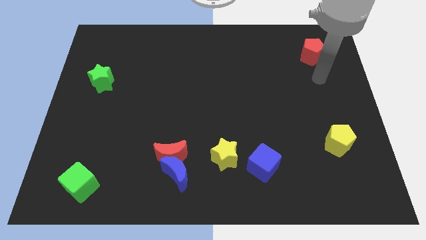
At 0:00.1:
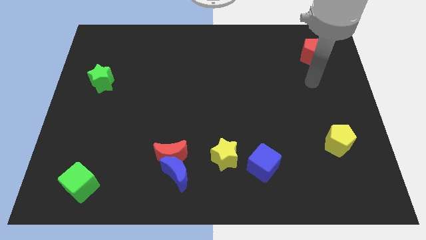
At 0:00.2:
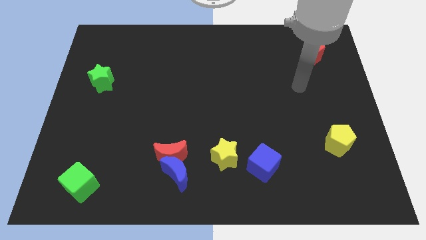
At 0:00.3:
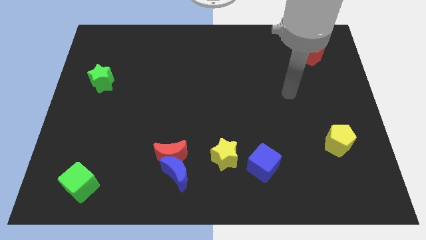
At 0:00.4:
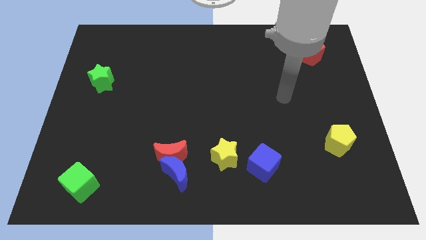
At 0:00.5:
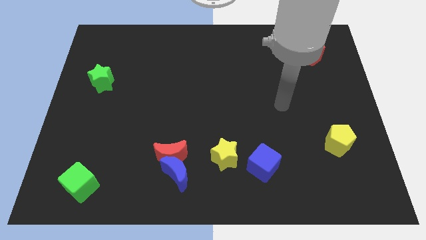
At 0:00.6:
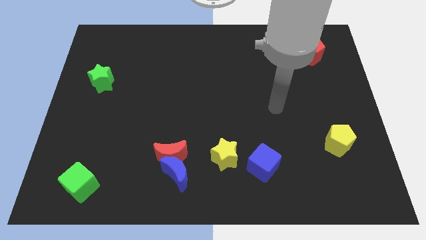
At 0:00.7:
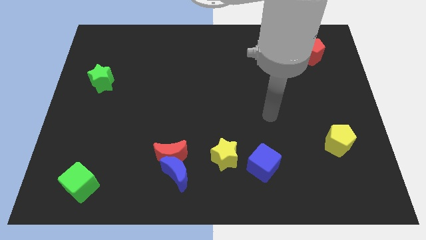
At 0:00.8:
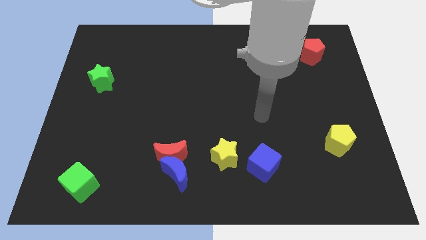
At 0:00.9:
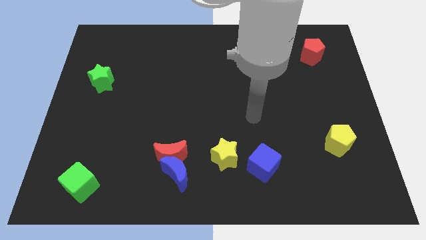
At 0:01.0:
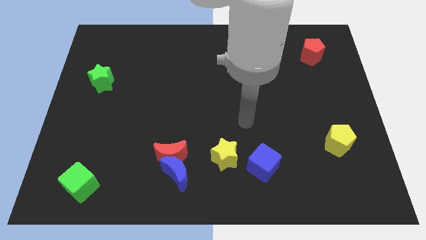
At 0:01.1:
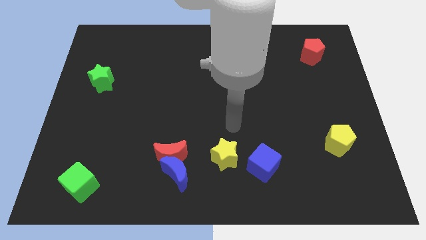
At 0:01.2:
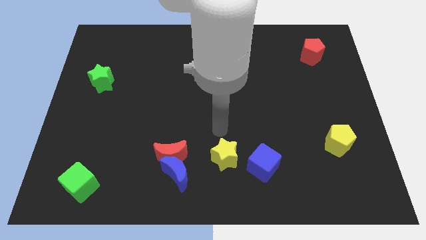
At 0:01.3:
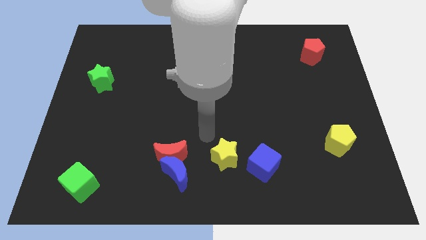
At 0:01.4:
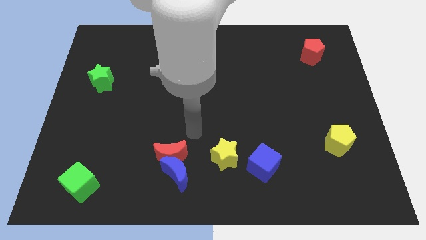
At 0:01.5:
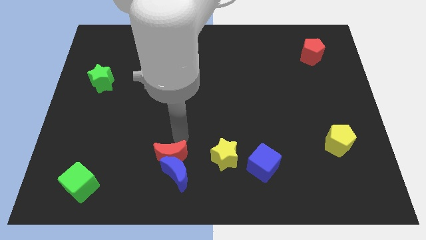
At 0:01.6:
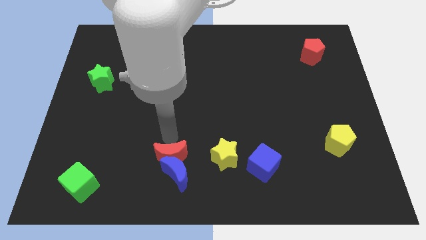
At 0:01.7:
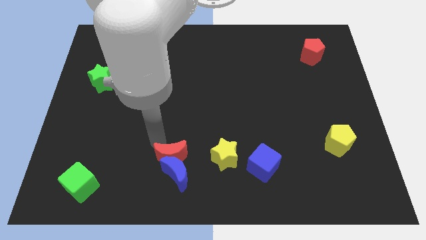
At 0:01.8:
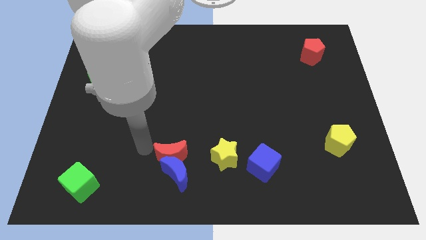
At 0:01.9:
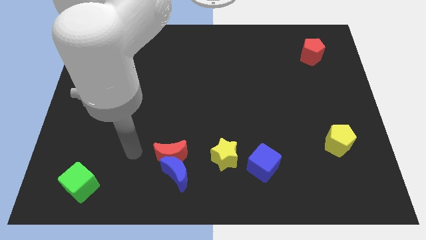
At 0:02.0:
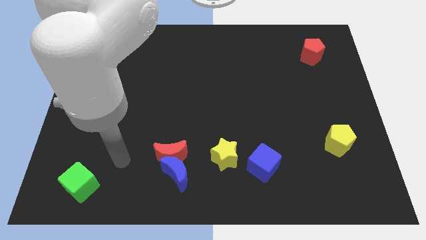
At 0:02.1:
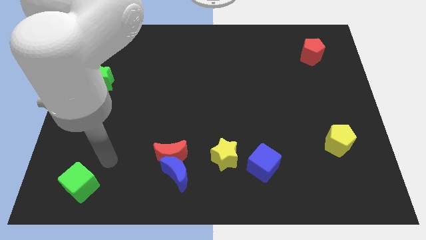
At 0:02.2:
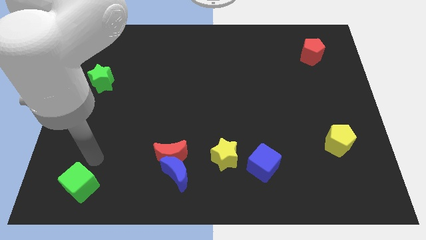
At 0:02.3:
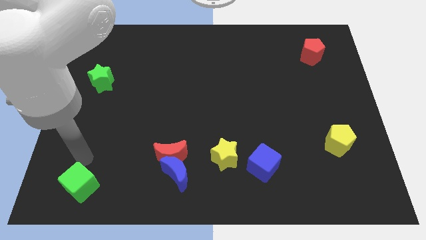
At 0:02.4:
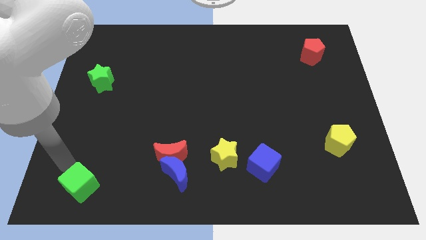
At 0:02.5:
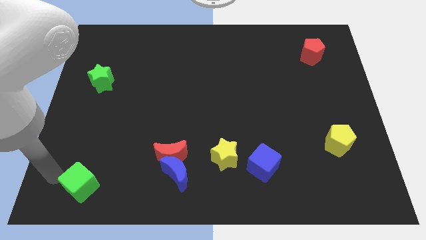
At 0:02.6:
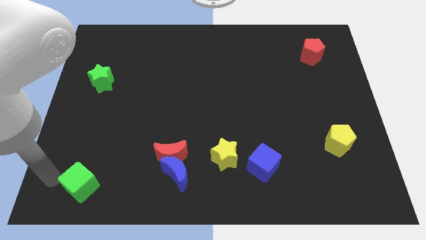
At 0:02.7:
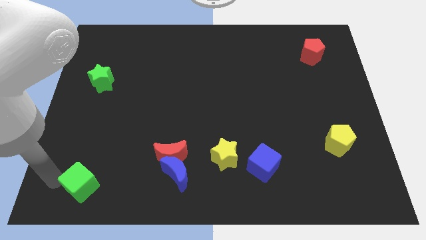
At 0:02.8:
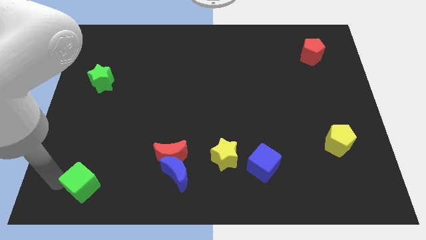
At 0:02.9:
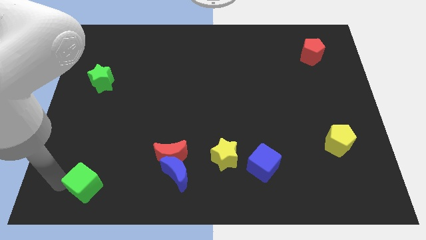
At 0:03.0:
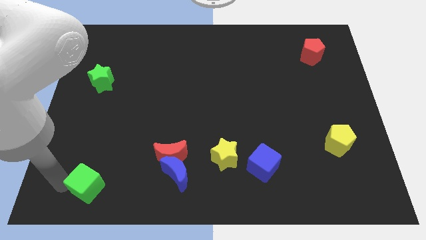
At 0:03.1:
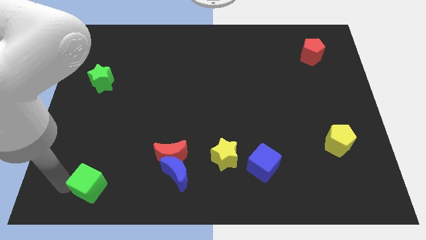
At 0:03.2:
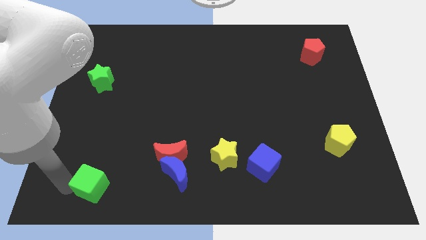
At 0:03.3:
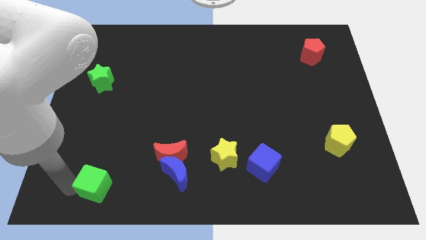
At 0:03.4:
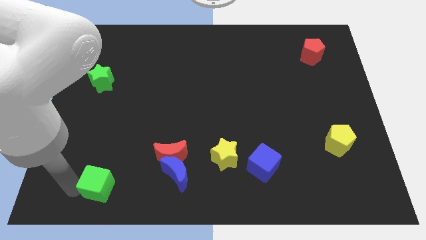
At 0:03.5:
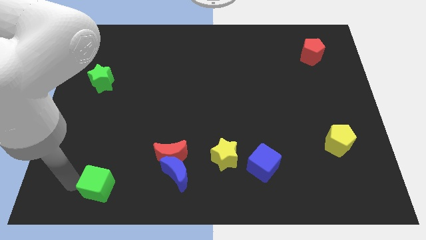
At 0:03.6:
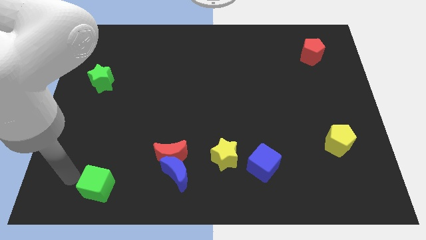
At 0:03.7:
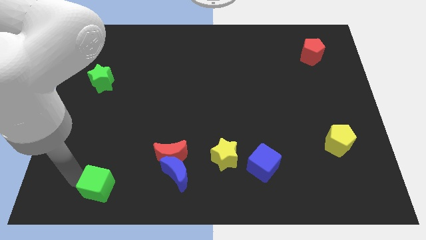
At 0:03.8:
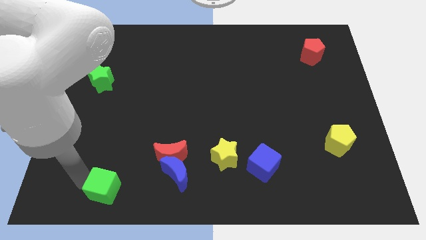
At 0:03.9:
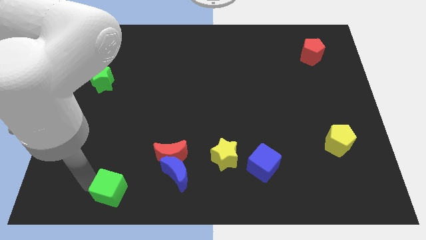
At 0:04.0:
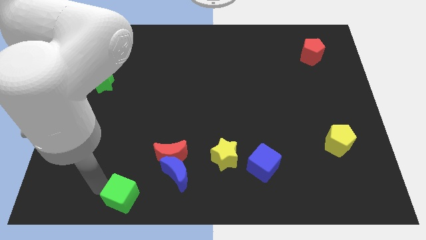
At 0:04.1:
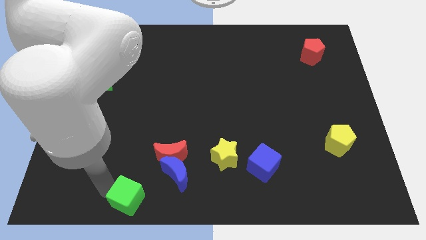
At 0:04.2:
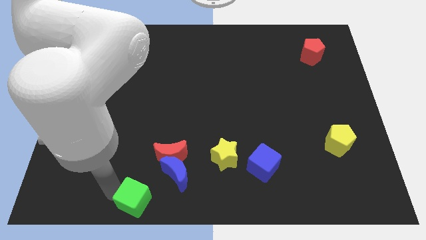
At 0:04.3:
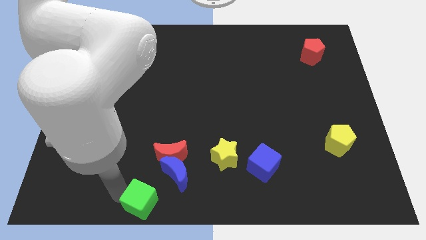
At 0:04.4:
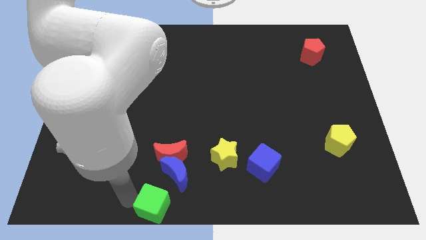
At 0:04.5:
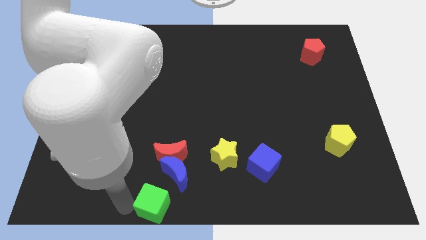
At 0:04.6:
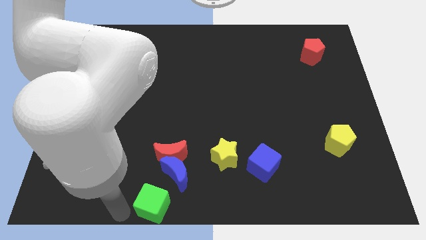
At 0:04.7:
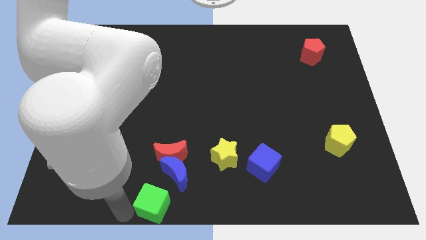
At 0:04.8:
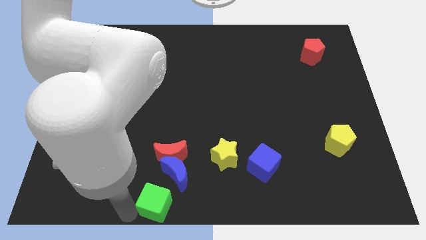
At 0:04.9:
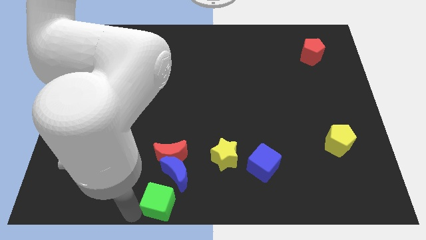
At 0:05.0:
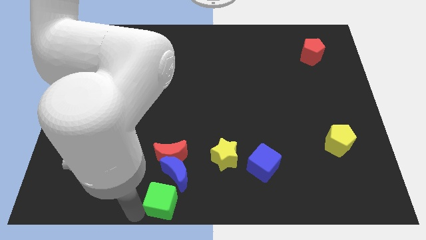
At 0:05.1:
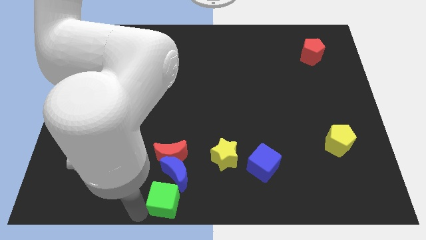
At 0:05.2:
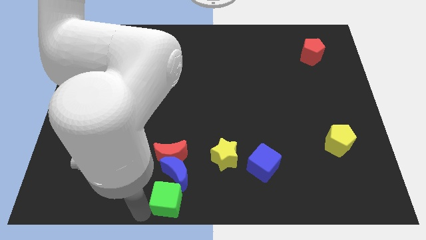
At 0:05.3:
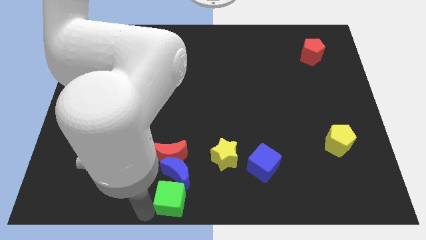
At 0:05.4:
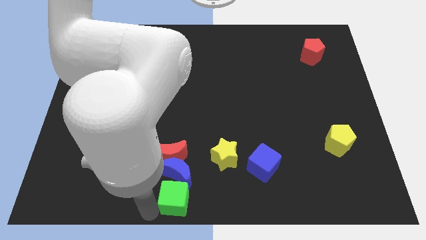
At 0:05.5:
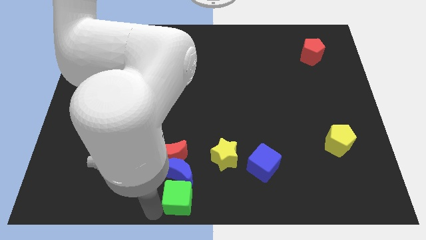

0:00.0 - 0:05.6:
move the green cube to the bottom left of the yellow star

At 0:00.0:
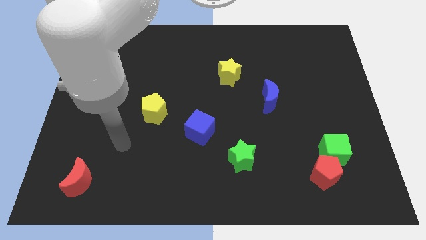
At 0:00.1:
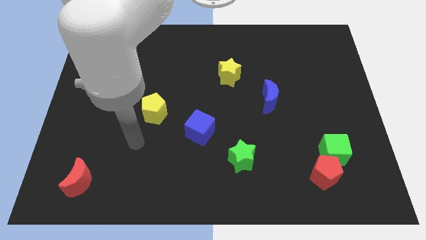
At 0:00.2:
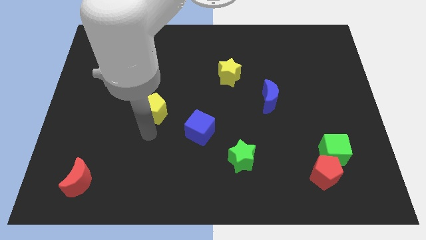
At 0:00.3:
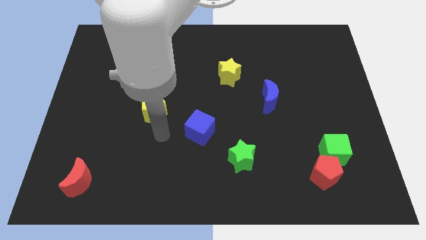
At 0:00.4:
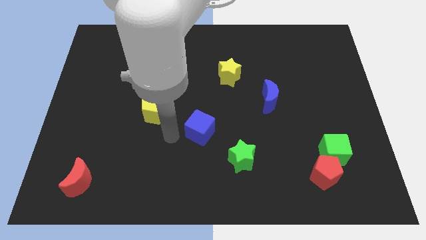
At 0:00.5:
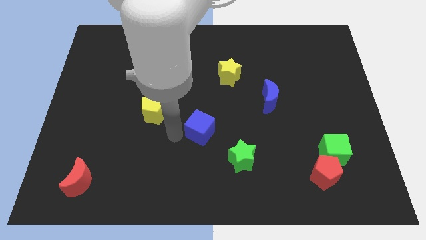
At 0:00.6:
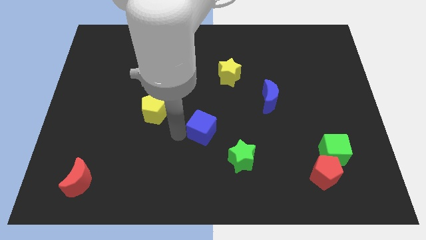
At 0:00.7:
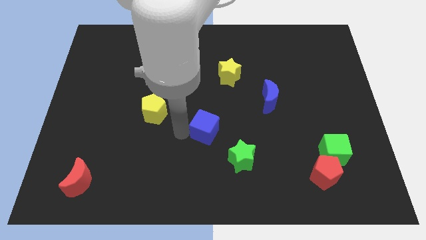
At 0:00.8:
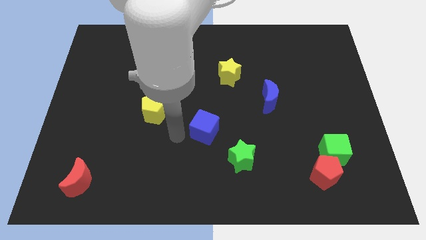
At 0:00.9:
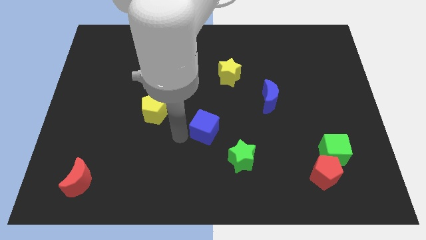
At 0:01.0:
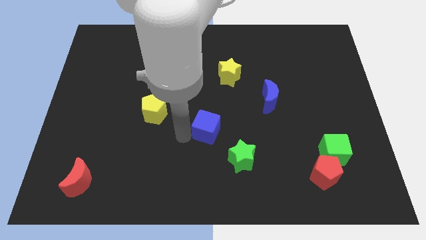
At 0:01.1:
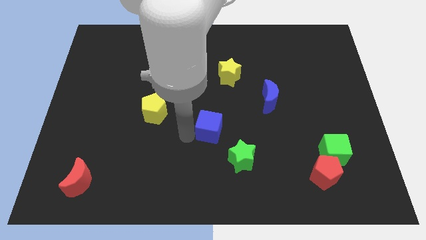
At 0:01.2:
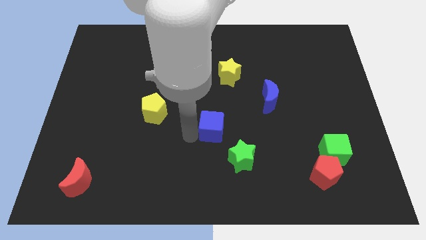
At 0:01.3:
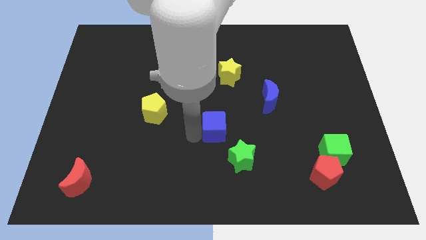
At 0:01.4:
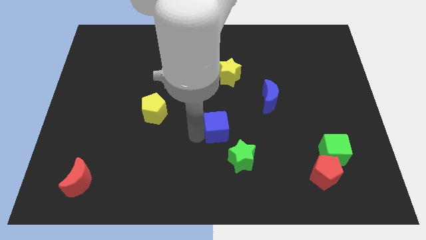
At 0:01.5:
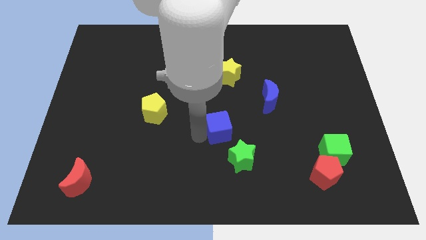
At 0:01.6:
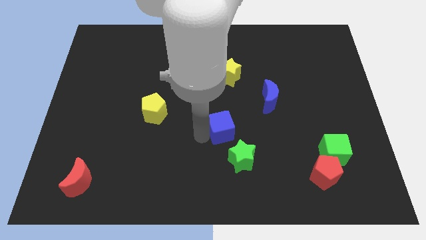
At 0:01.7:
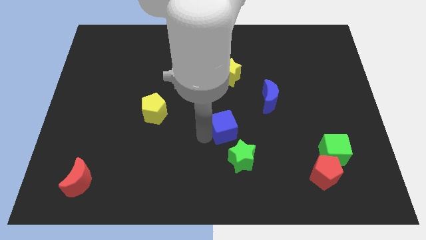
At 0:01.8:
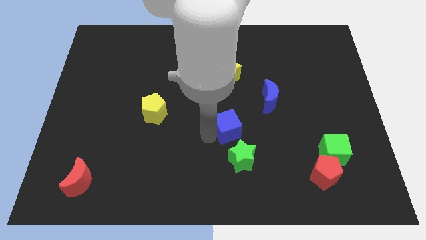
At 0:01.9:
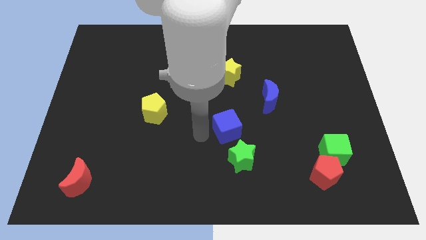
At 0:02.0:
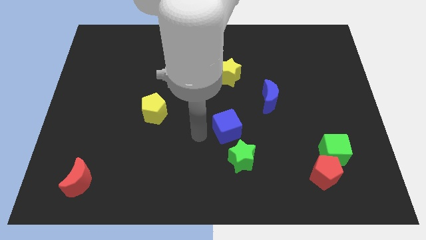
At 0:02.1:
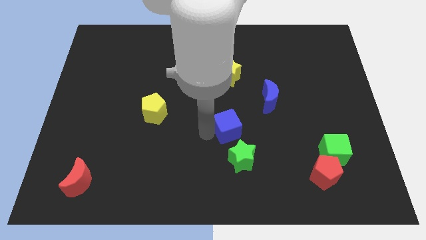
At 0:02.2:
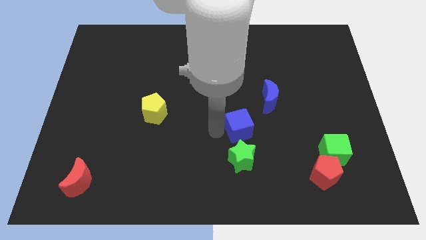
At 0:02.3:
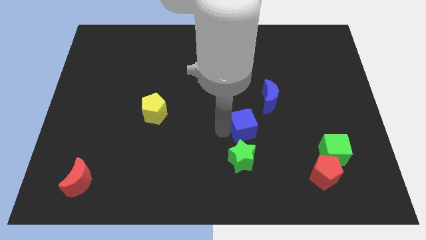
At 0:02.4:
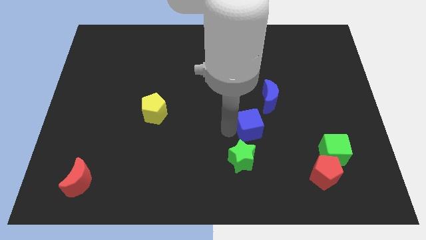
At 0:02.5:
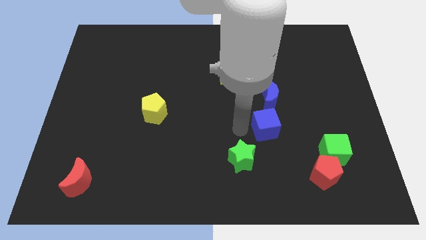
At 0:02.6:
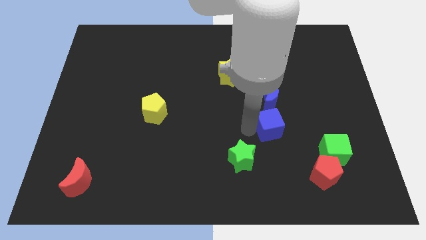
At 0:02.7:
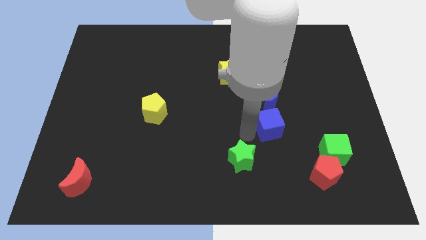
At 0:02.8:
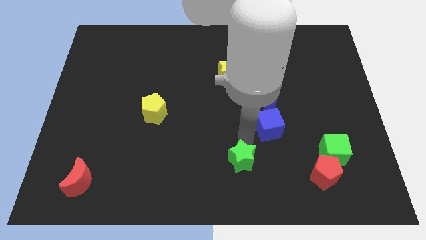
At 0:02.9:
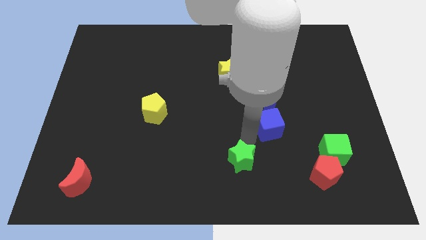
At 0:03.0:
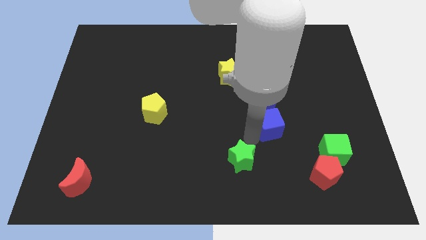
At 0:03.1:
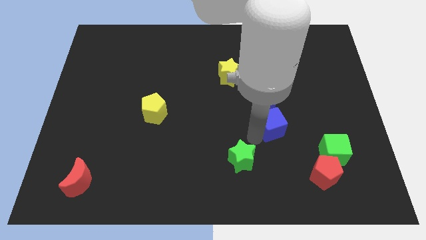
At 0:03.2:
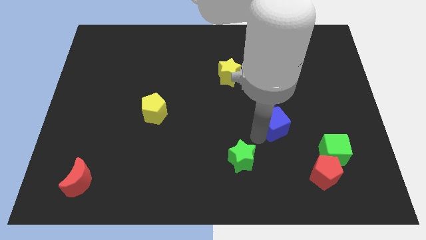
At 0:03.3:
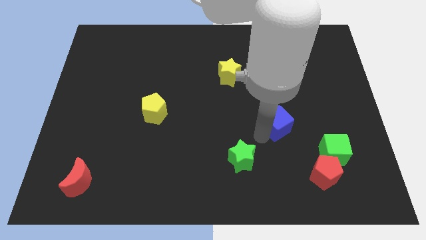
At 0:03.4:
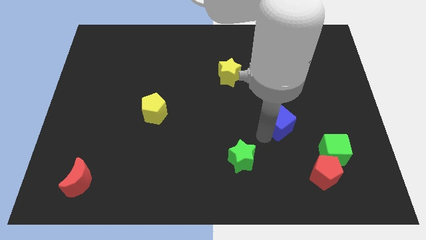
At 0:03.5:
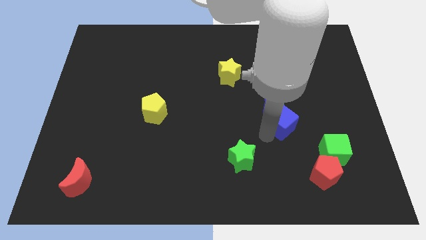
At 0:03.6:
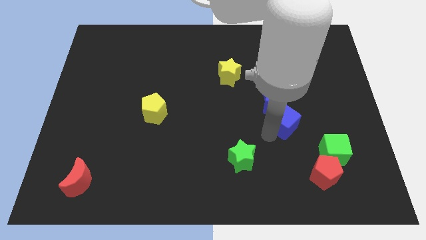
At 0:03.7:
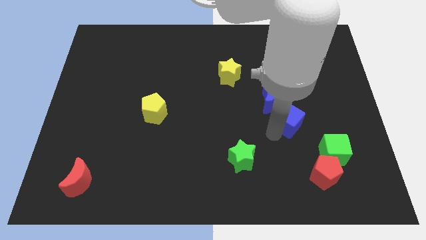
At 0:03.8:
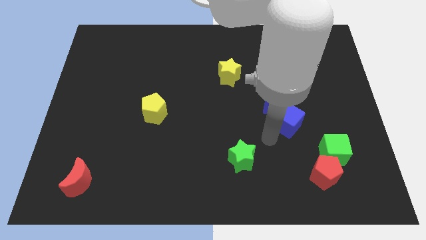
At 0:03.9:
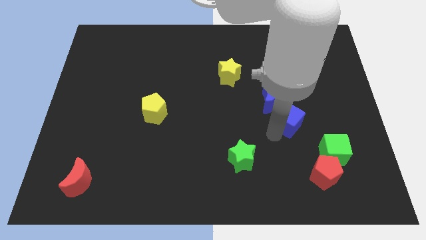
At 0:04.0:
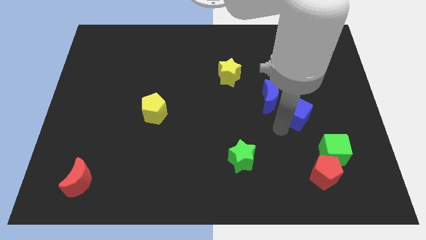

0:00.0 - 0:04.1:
move the blue cube right of the blue moon
